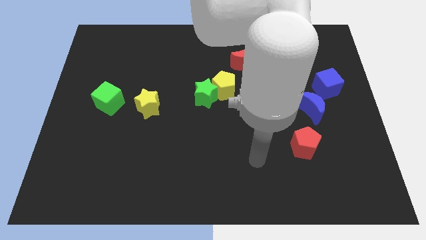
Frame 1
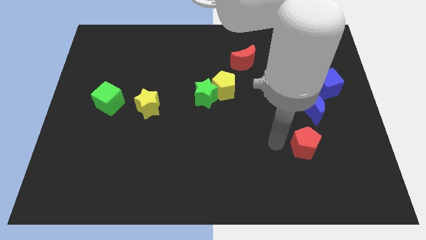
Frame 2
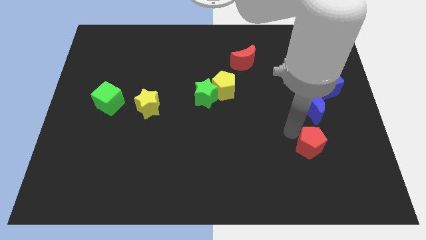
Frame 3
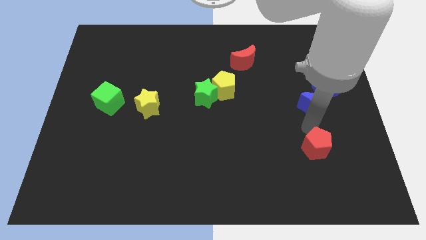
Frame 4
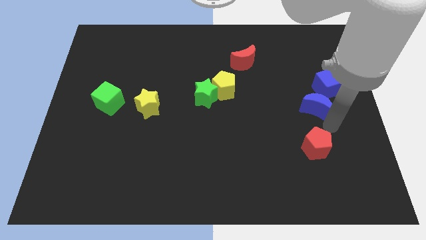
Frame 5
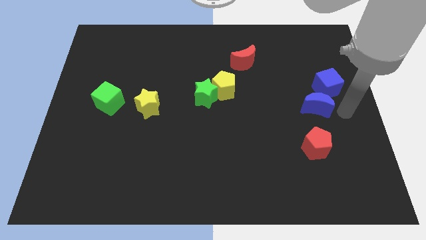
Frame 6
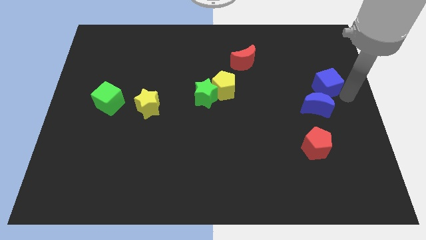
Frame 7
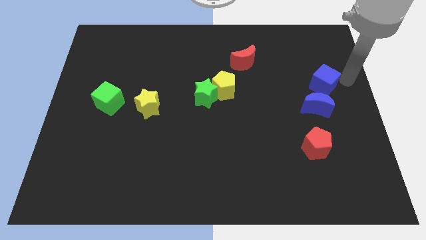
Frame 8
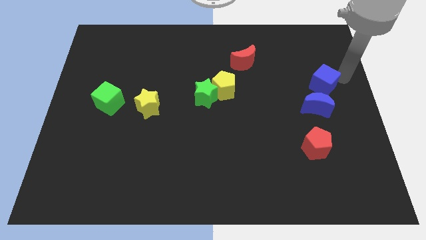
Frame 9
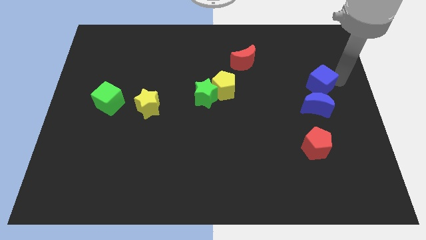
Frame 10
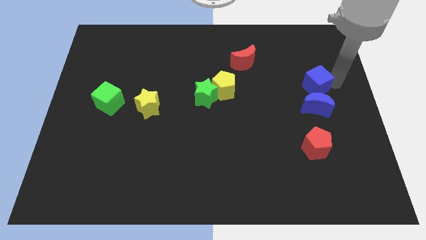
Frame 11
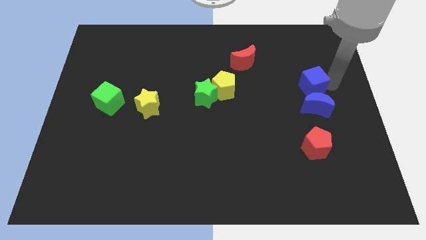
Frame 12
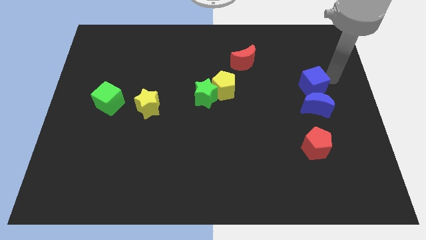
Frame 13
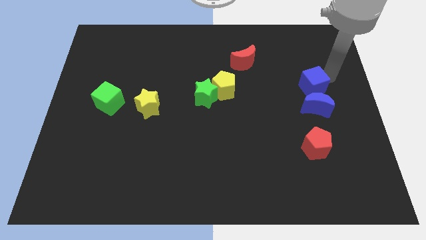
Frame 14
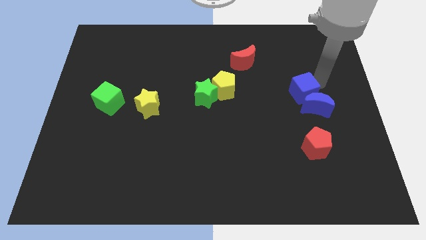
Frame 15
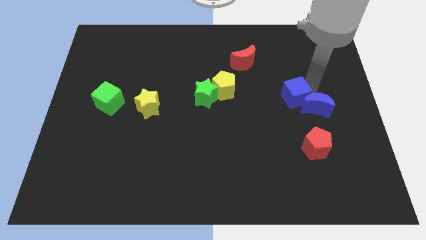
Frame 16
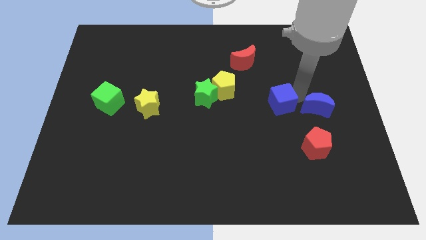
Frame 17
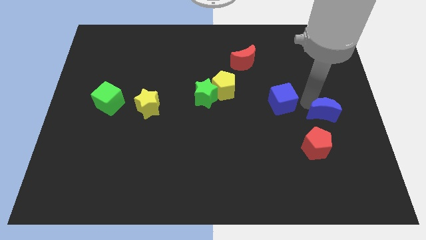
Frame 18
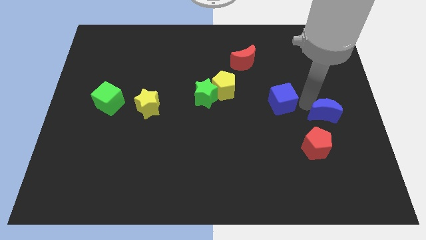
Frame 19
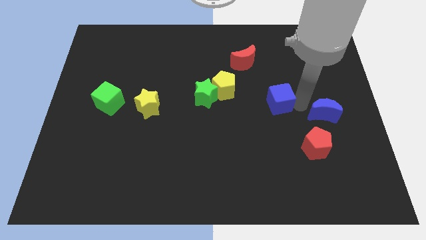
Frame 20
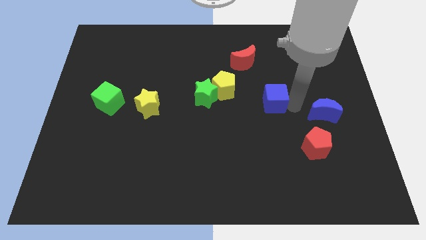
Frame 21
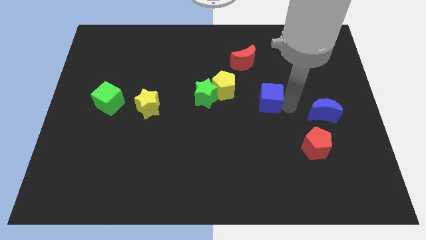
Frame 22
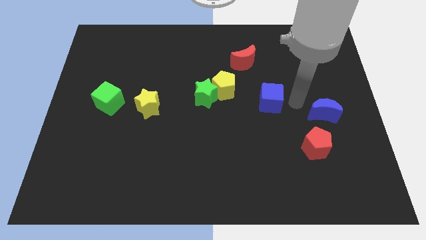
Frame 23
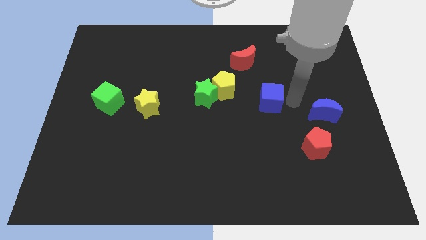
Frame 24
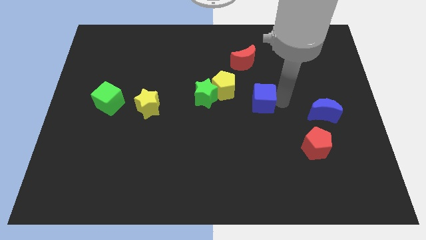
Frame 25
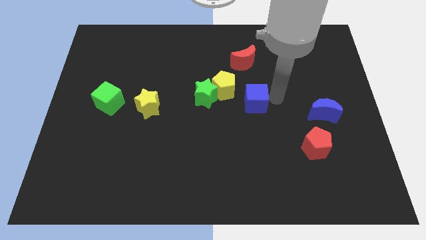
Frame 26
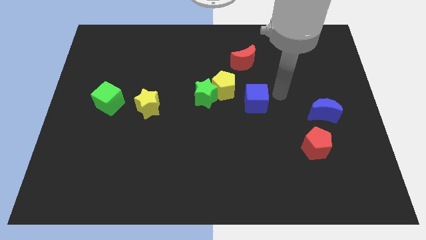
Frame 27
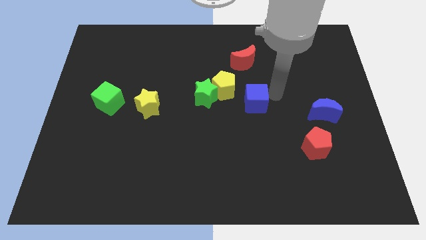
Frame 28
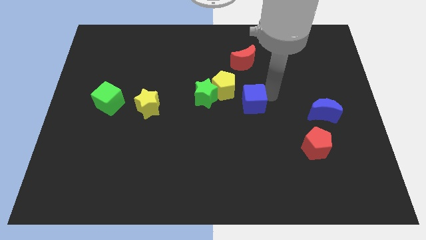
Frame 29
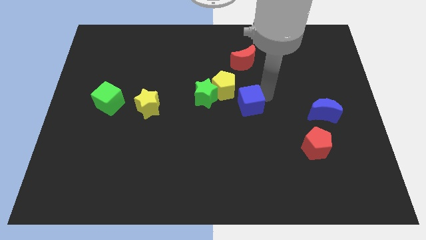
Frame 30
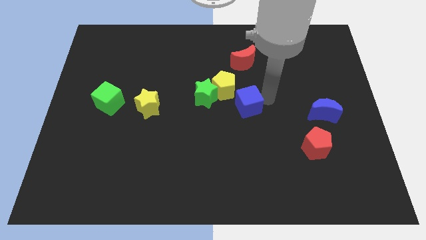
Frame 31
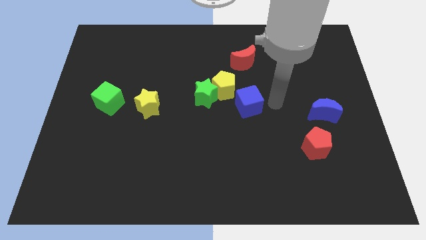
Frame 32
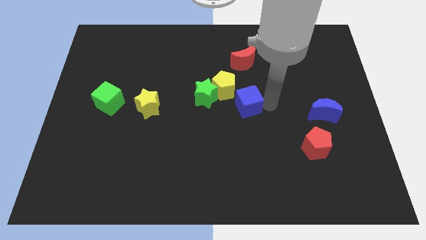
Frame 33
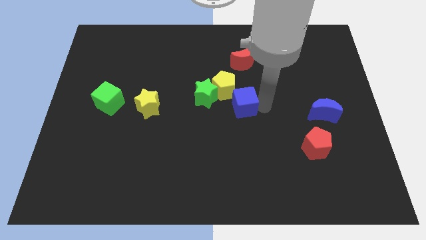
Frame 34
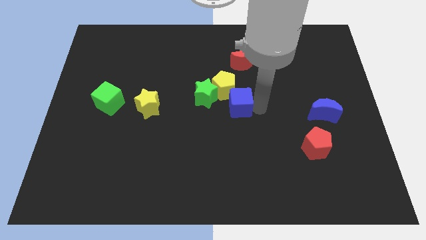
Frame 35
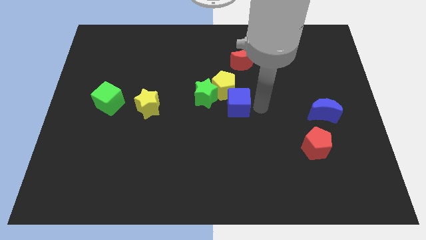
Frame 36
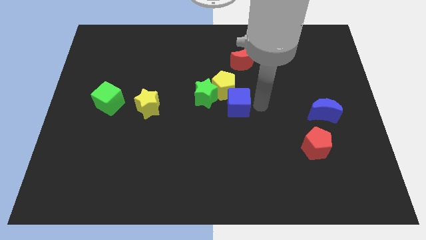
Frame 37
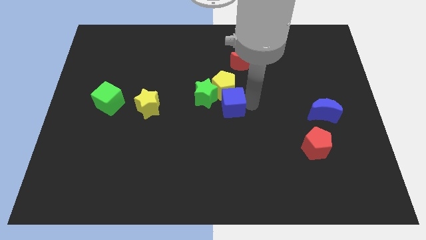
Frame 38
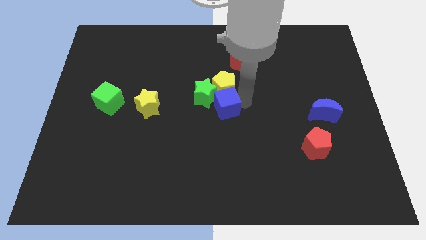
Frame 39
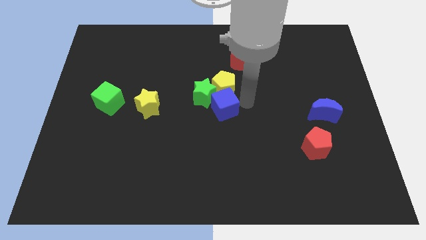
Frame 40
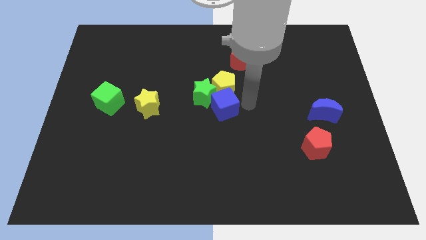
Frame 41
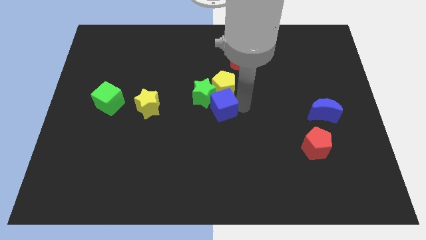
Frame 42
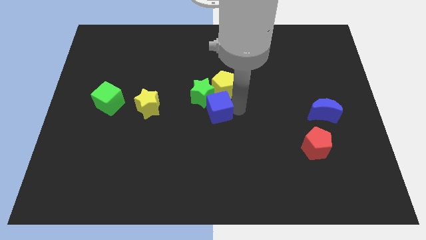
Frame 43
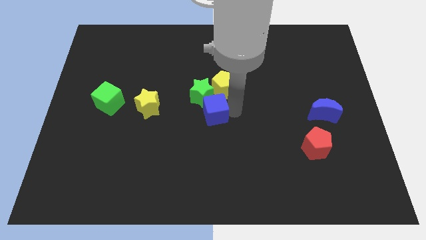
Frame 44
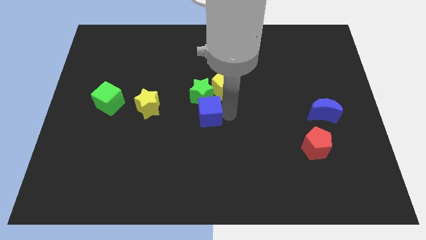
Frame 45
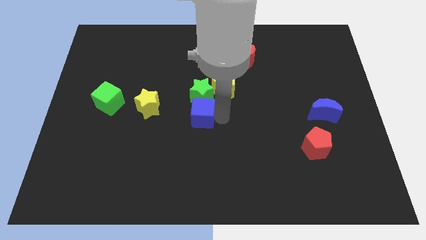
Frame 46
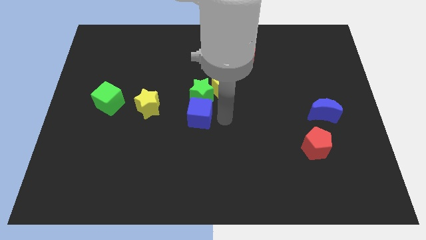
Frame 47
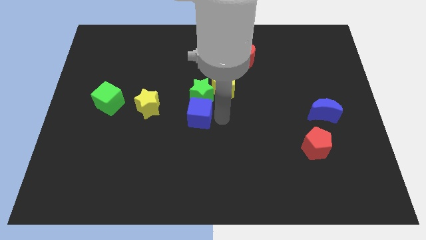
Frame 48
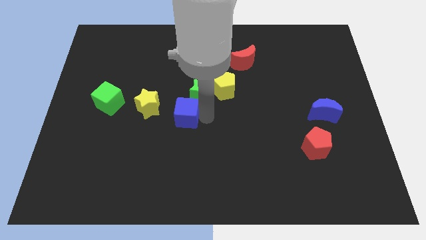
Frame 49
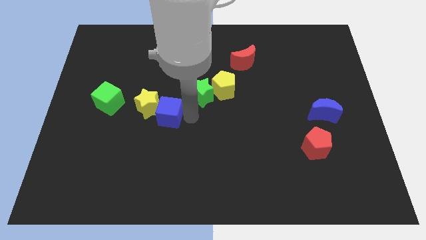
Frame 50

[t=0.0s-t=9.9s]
push the blue cube towards the yellow star

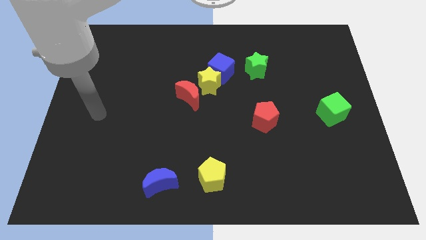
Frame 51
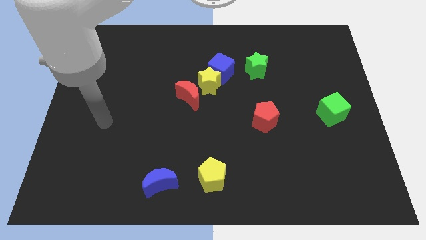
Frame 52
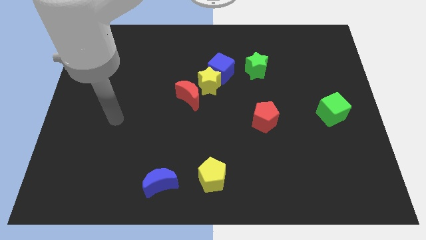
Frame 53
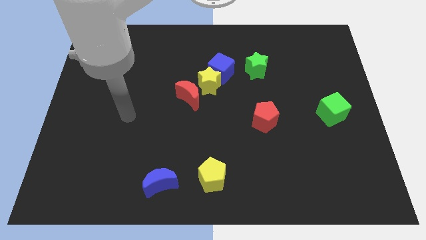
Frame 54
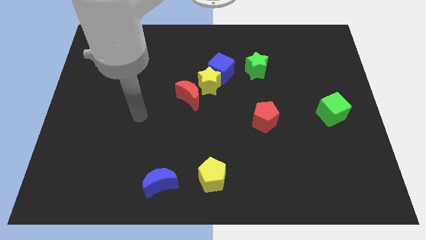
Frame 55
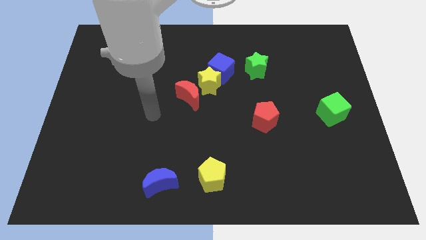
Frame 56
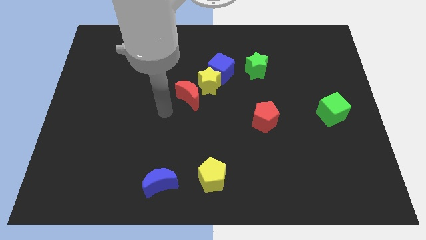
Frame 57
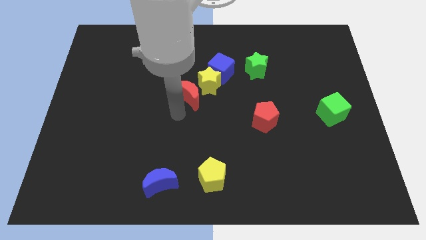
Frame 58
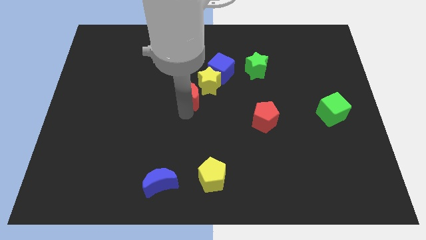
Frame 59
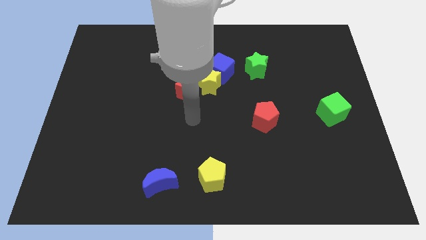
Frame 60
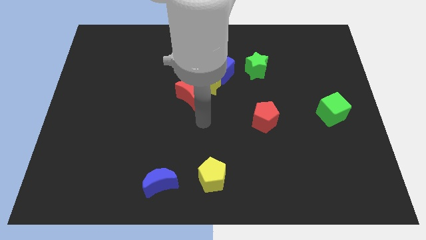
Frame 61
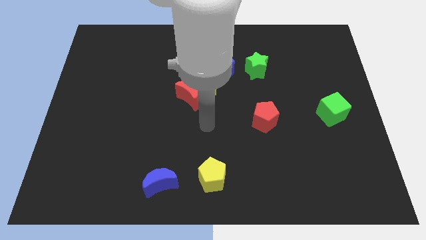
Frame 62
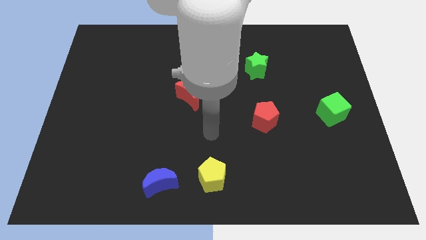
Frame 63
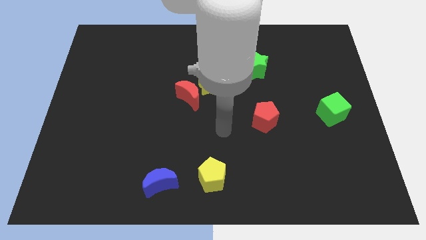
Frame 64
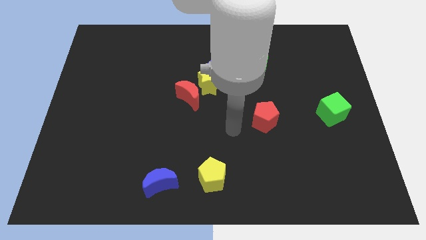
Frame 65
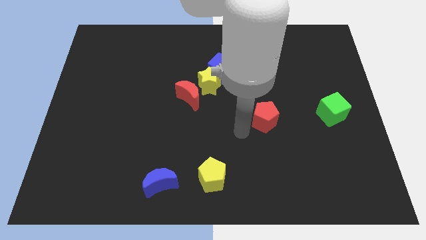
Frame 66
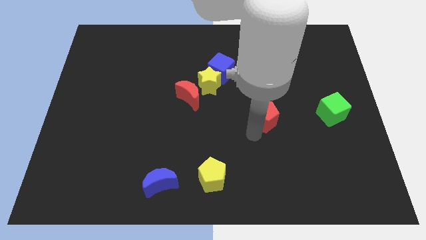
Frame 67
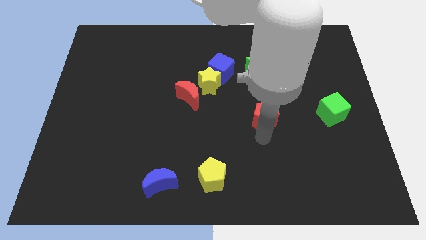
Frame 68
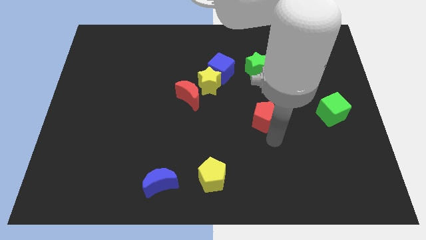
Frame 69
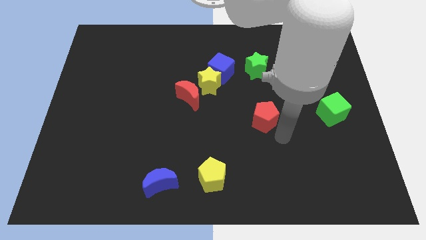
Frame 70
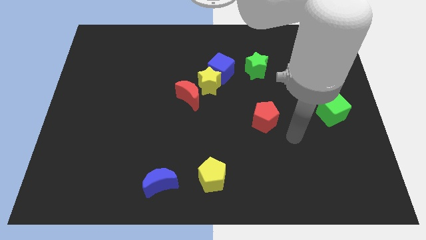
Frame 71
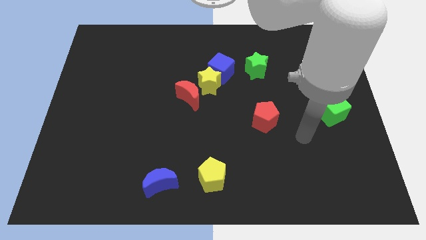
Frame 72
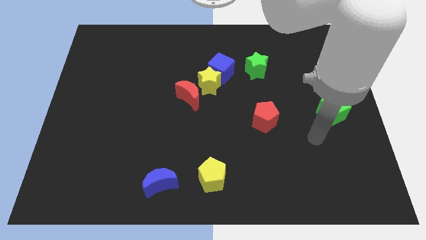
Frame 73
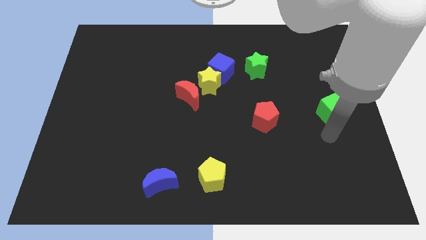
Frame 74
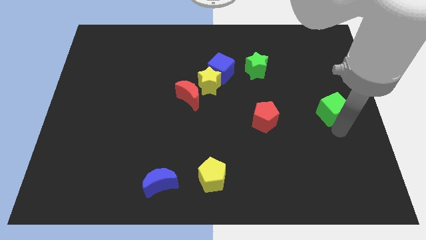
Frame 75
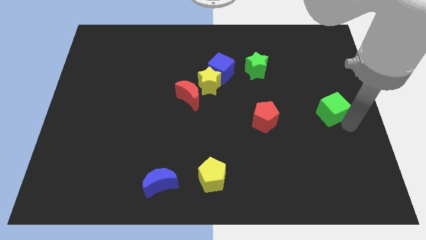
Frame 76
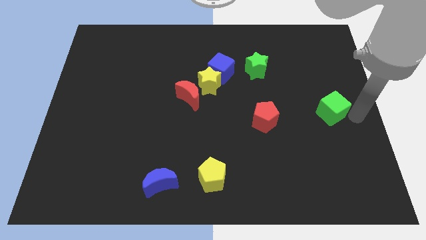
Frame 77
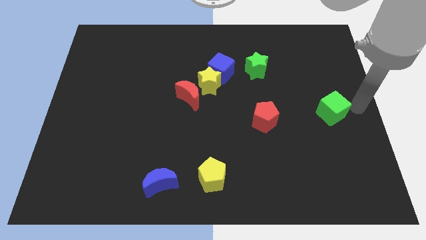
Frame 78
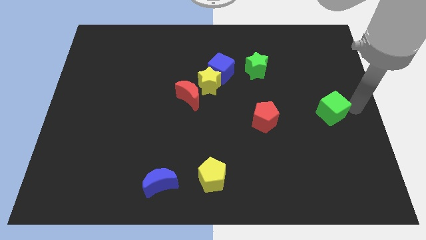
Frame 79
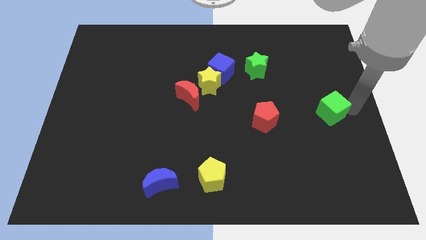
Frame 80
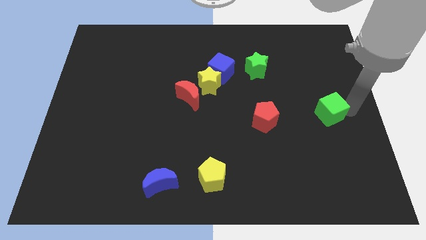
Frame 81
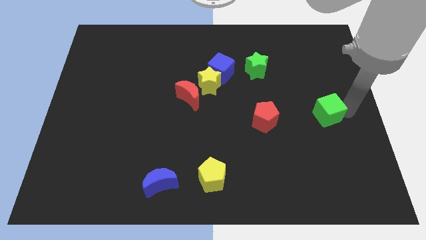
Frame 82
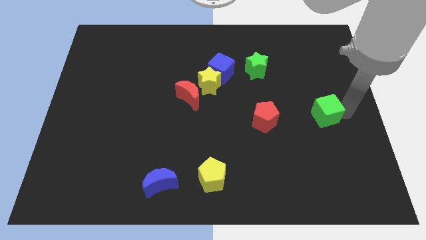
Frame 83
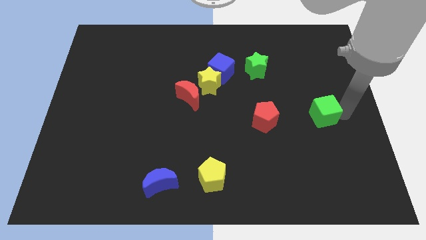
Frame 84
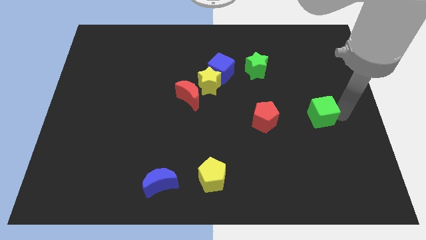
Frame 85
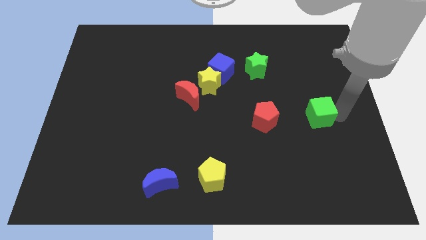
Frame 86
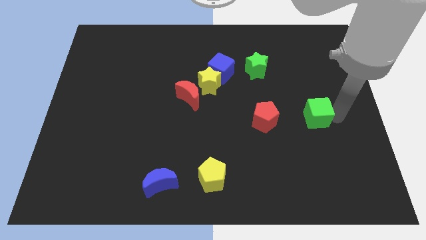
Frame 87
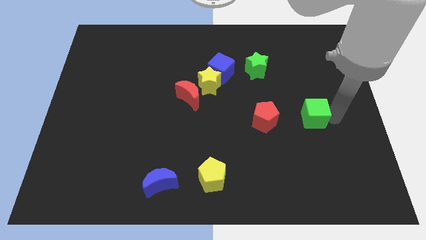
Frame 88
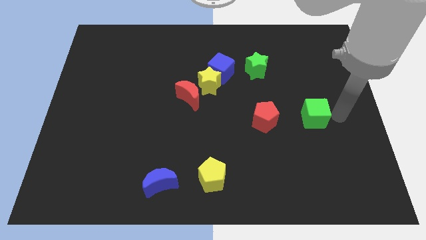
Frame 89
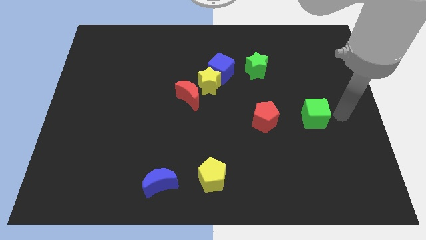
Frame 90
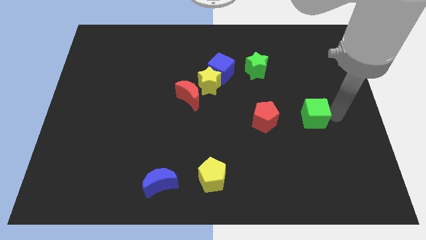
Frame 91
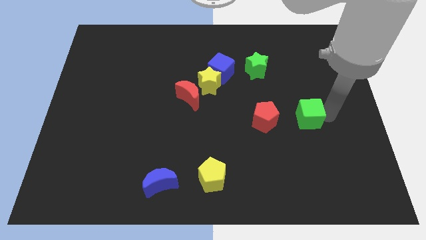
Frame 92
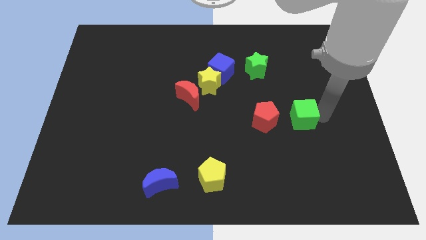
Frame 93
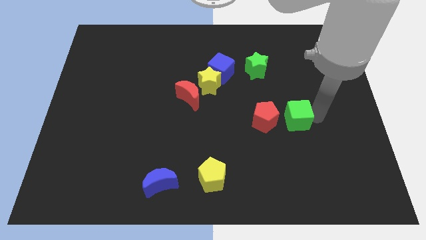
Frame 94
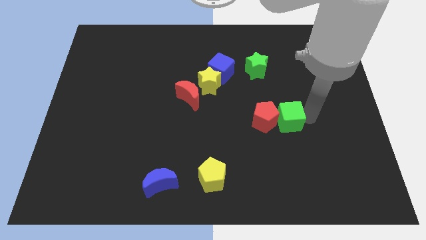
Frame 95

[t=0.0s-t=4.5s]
put the green cube next to the red pentagon
